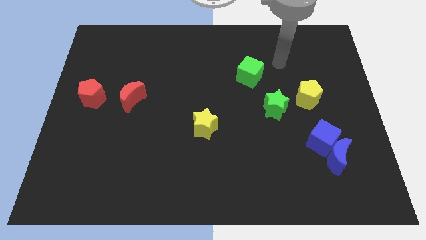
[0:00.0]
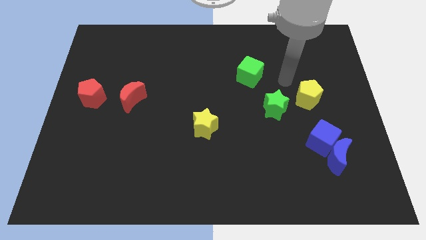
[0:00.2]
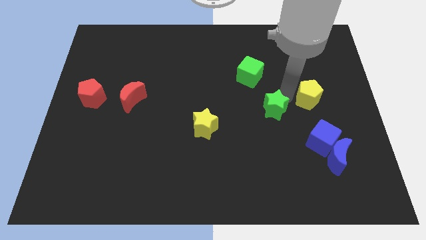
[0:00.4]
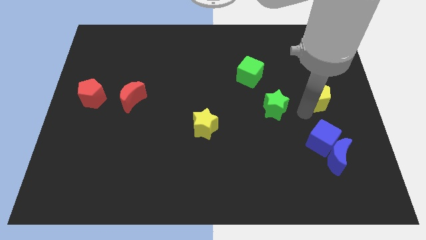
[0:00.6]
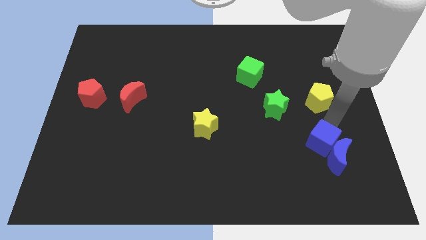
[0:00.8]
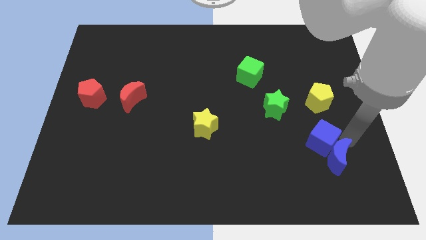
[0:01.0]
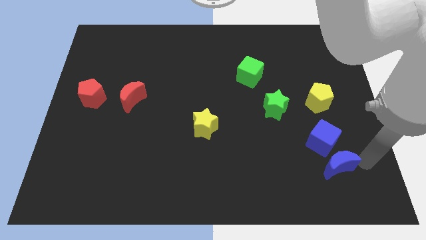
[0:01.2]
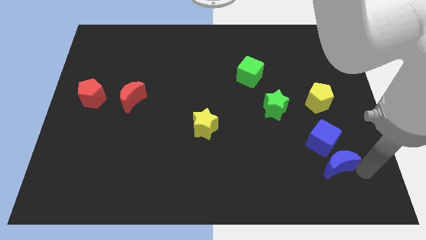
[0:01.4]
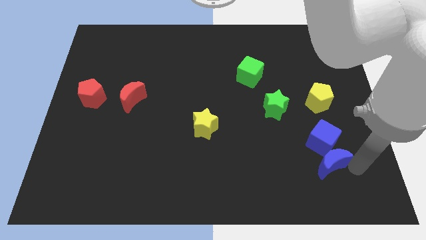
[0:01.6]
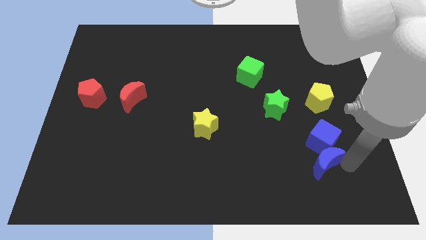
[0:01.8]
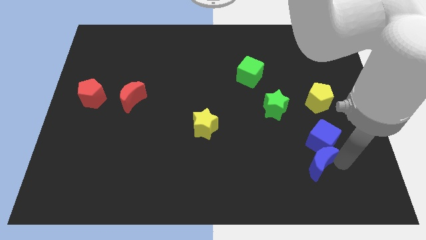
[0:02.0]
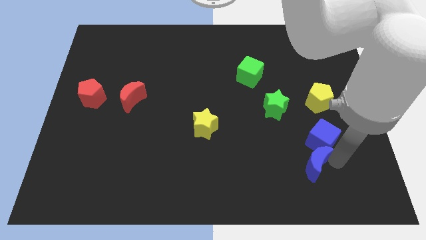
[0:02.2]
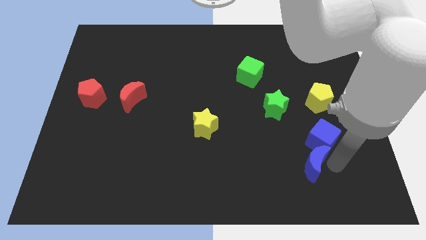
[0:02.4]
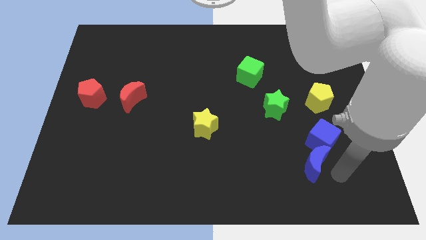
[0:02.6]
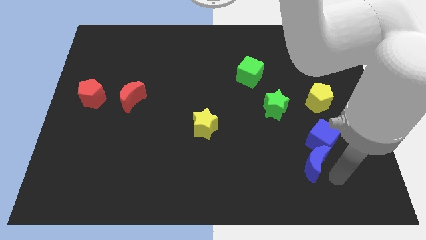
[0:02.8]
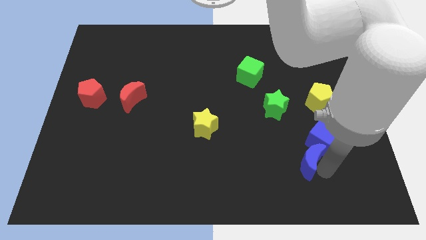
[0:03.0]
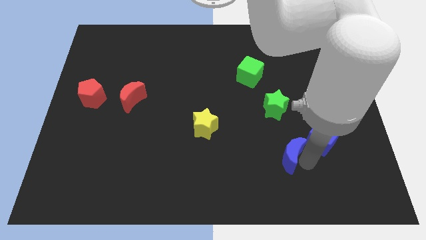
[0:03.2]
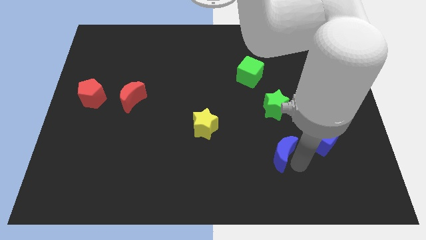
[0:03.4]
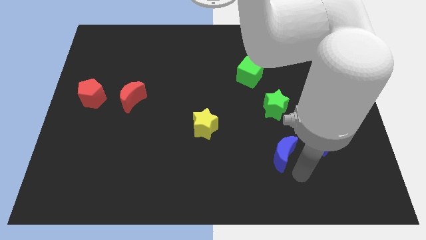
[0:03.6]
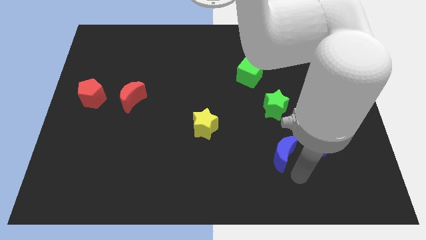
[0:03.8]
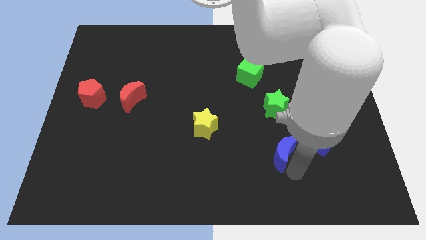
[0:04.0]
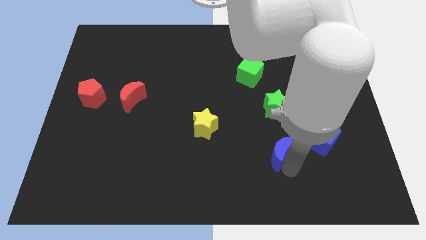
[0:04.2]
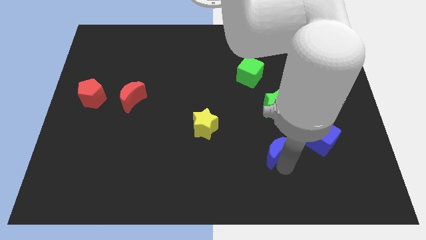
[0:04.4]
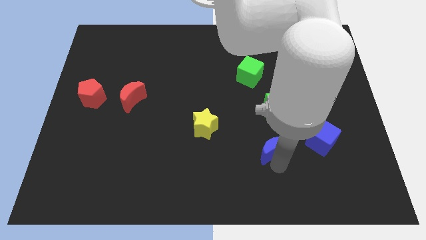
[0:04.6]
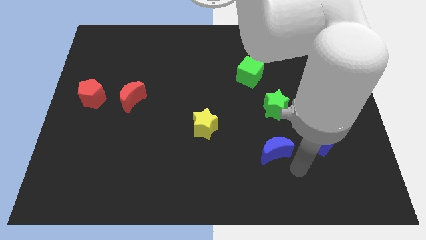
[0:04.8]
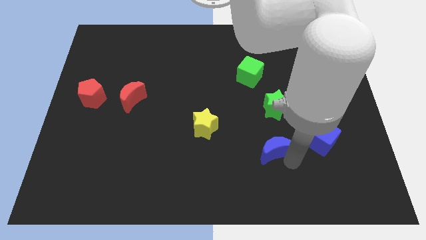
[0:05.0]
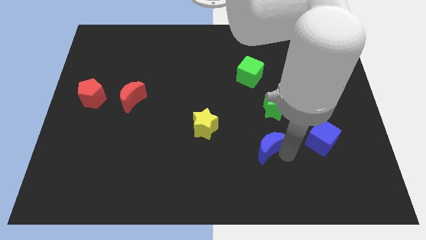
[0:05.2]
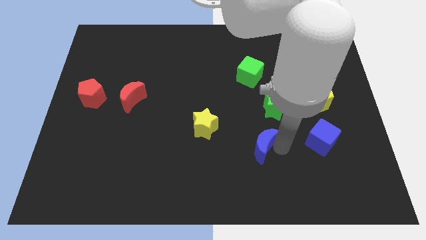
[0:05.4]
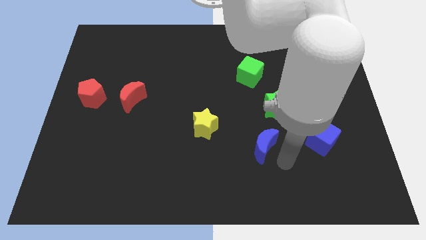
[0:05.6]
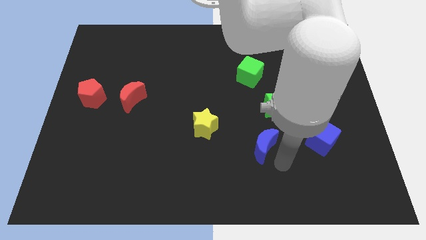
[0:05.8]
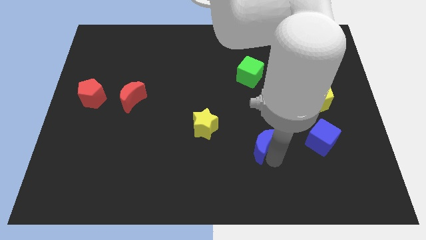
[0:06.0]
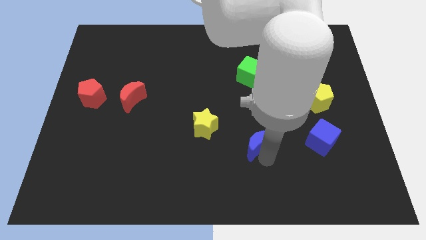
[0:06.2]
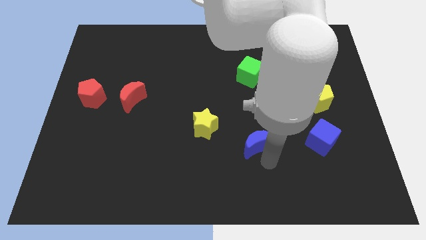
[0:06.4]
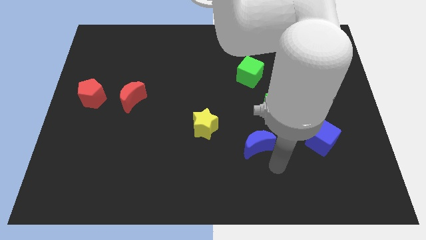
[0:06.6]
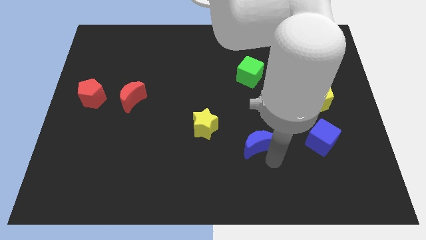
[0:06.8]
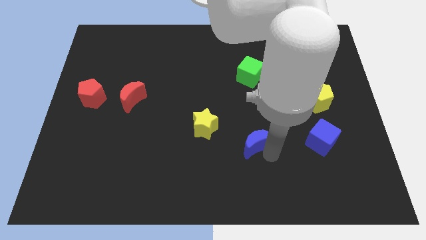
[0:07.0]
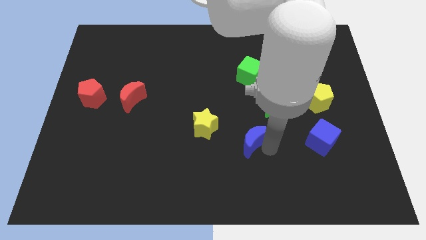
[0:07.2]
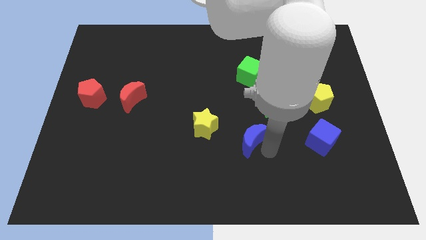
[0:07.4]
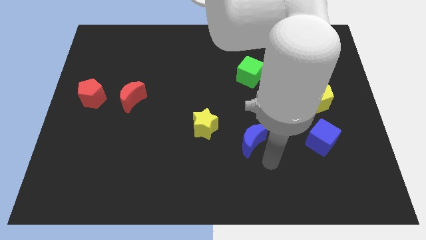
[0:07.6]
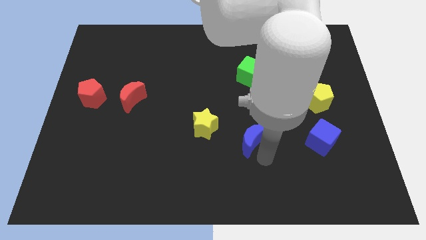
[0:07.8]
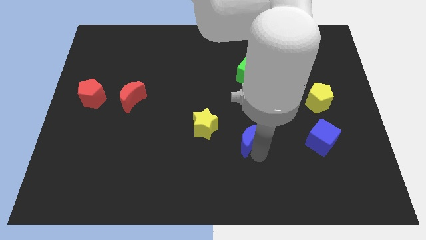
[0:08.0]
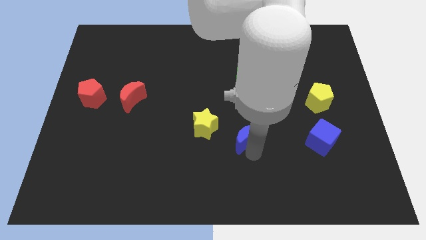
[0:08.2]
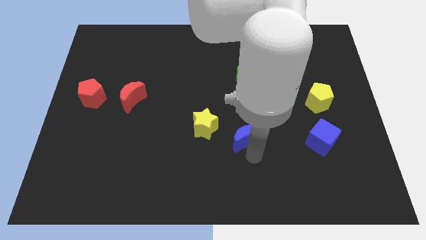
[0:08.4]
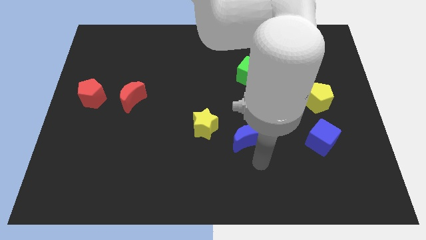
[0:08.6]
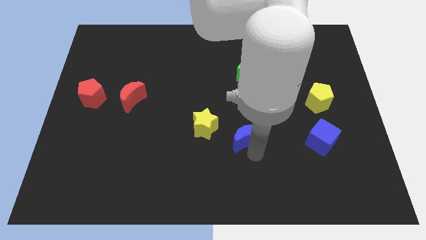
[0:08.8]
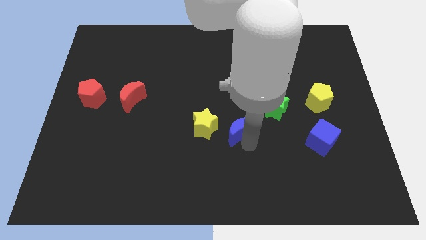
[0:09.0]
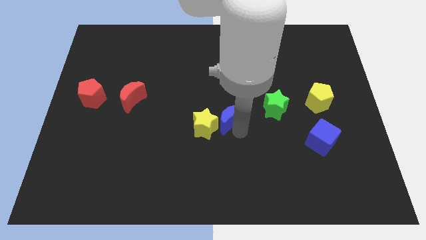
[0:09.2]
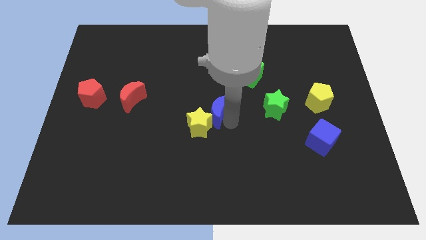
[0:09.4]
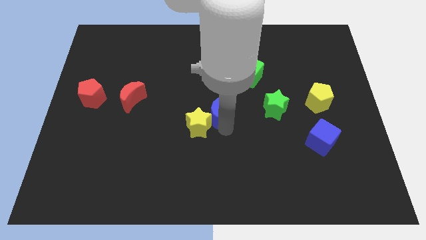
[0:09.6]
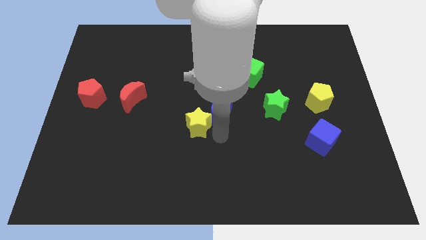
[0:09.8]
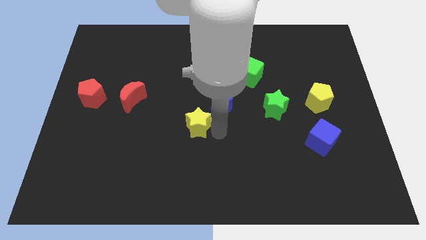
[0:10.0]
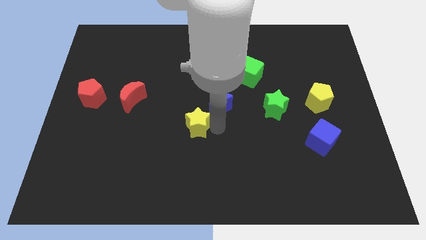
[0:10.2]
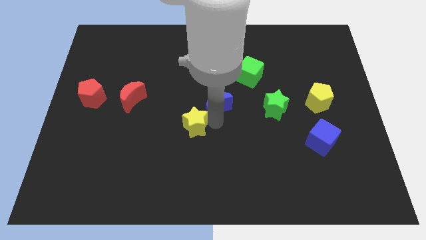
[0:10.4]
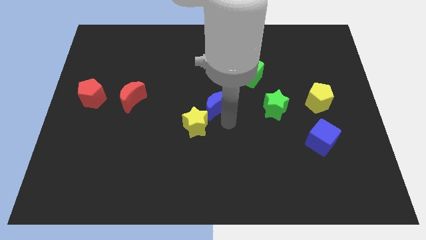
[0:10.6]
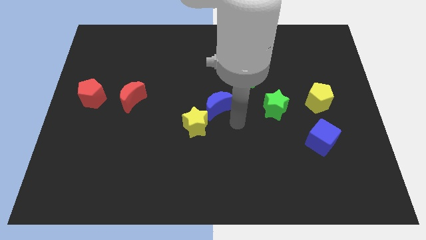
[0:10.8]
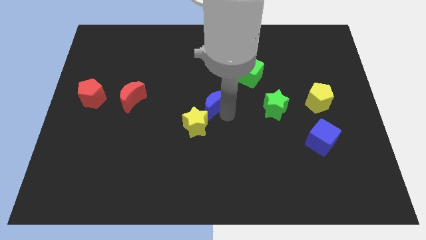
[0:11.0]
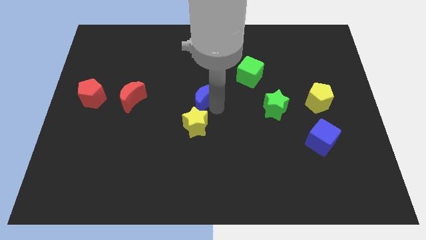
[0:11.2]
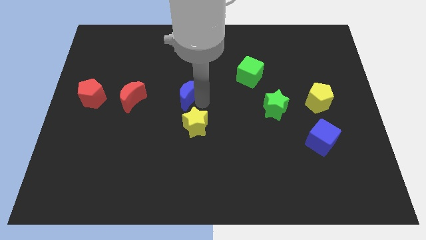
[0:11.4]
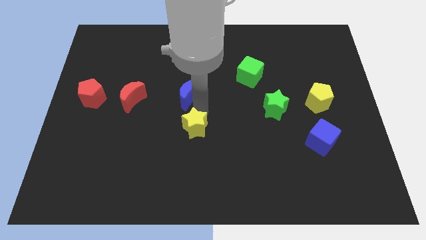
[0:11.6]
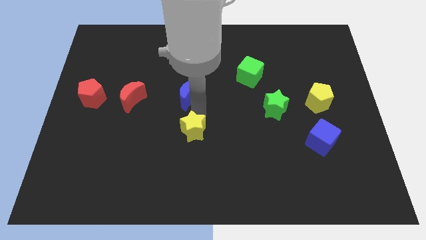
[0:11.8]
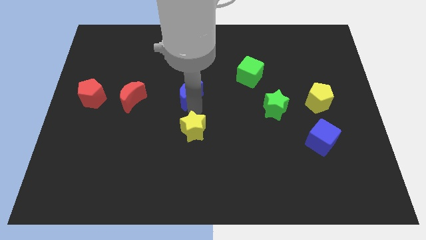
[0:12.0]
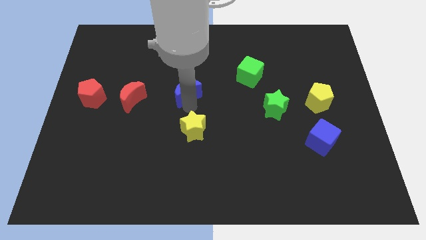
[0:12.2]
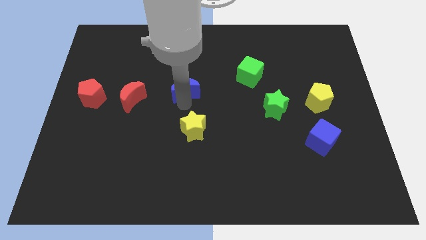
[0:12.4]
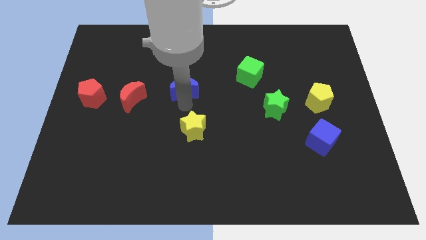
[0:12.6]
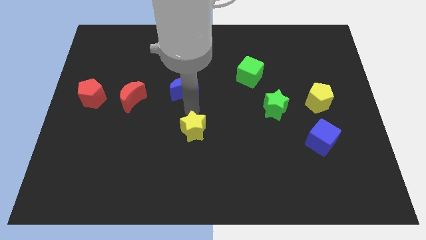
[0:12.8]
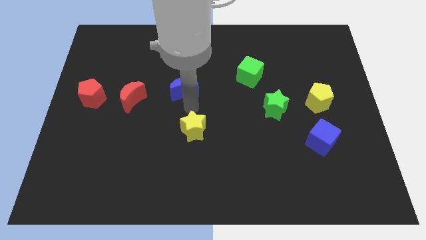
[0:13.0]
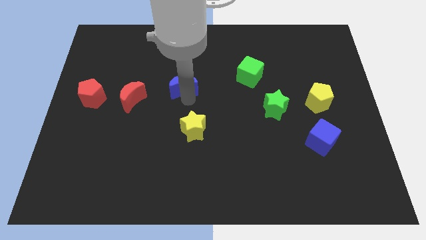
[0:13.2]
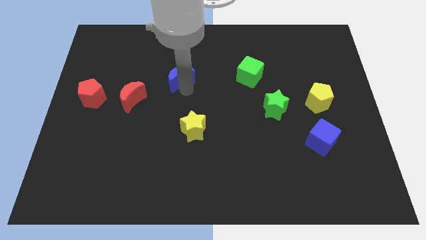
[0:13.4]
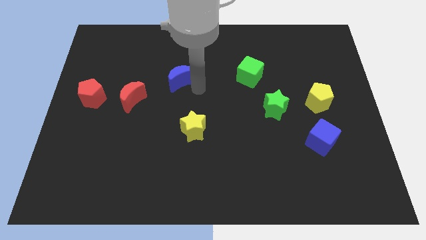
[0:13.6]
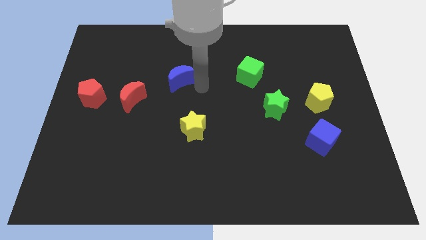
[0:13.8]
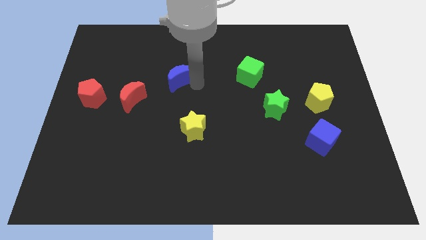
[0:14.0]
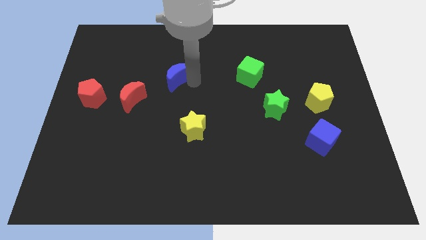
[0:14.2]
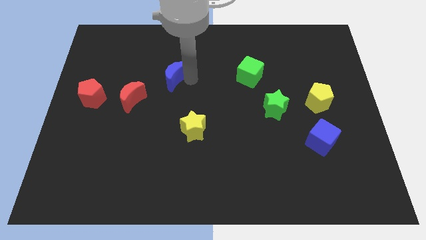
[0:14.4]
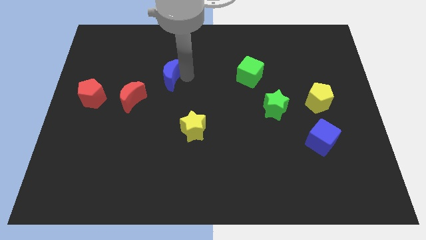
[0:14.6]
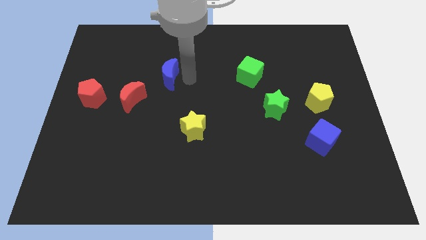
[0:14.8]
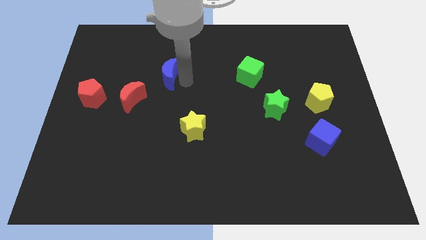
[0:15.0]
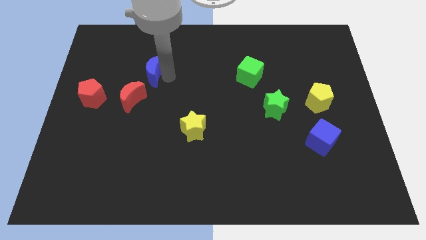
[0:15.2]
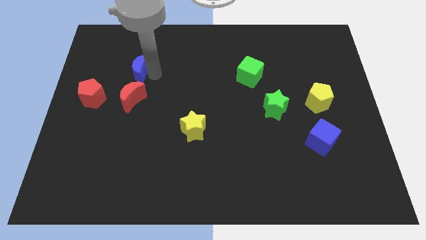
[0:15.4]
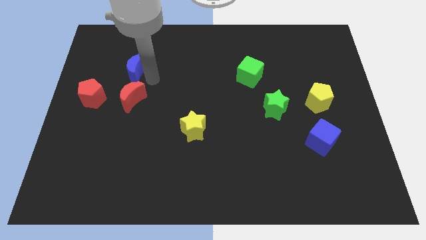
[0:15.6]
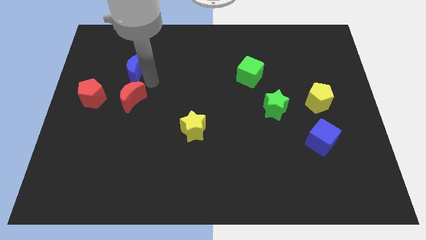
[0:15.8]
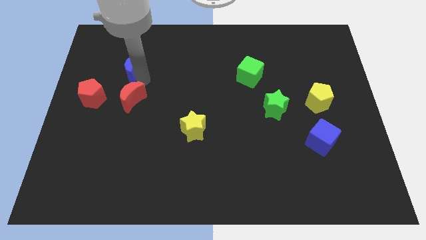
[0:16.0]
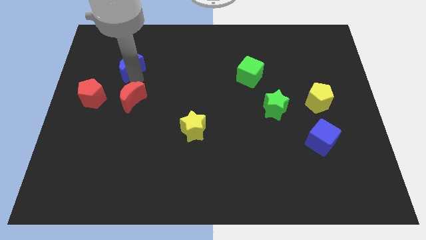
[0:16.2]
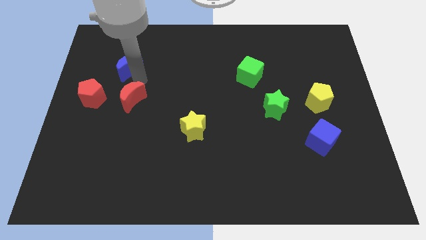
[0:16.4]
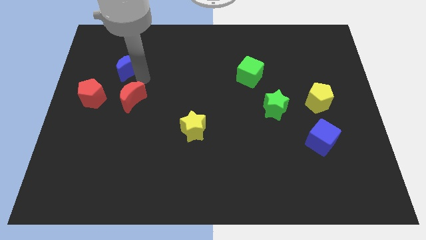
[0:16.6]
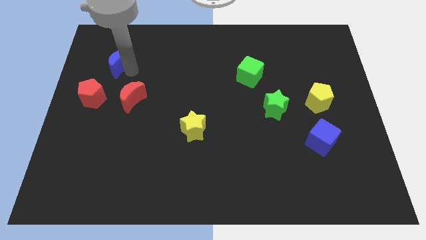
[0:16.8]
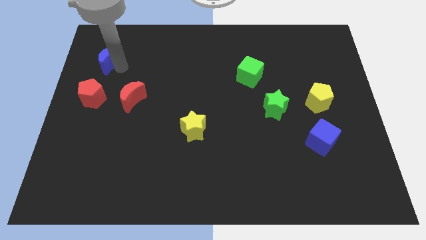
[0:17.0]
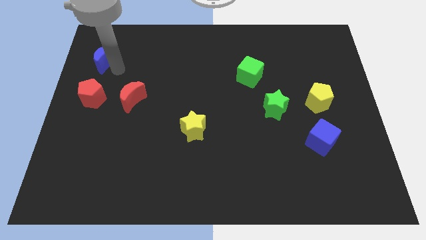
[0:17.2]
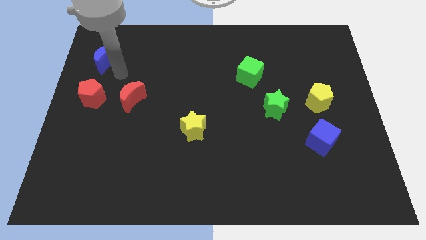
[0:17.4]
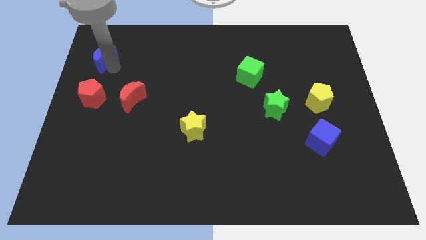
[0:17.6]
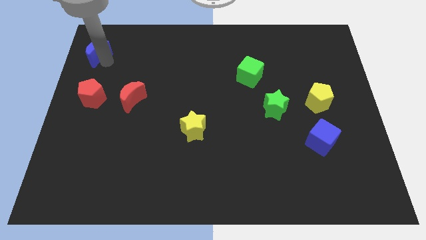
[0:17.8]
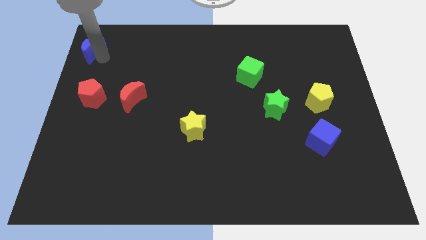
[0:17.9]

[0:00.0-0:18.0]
move the blue moon to the upper left corner
